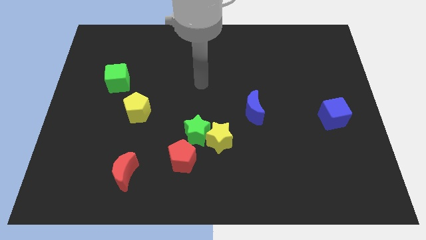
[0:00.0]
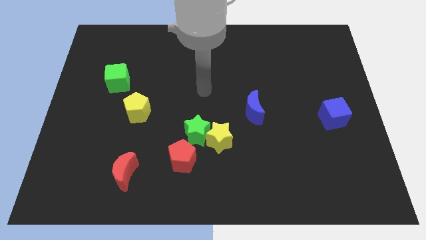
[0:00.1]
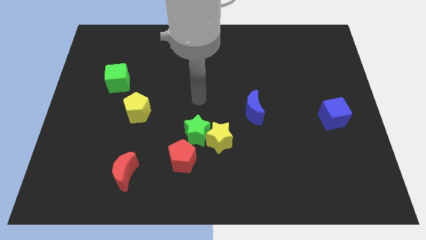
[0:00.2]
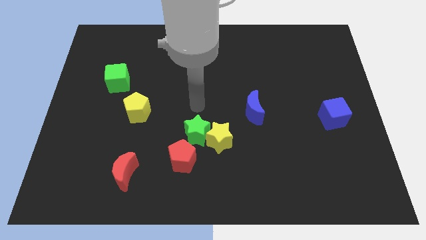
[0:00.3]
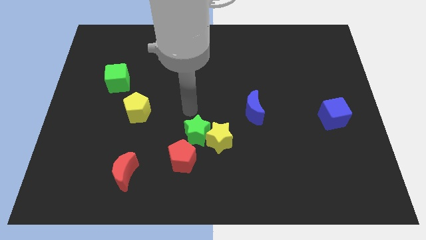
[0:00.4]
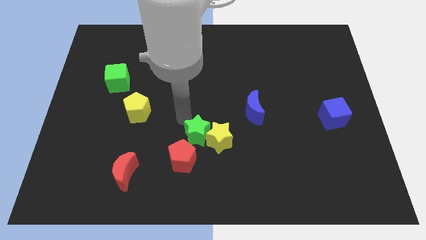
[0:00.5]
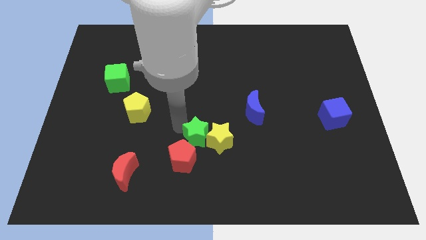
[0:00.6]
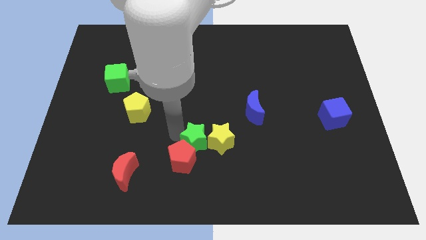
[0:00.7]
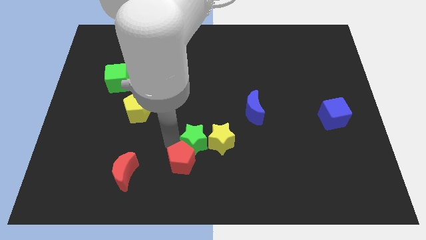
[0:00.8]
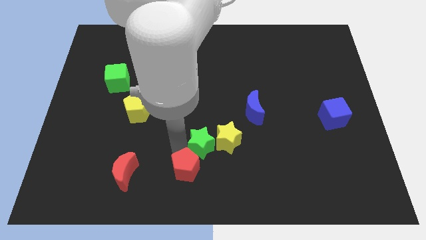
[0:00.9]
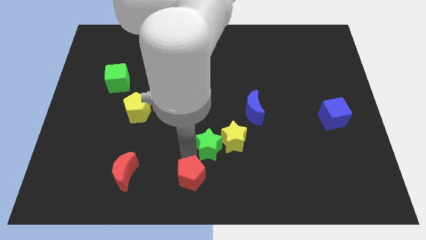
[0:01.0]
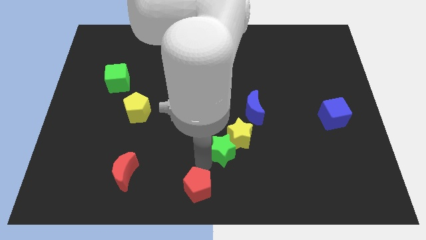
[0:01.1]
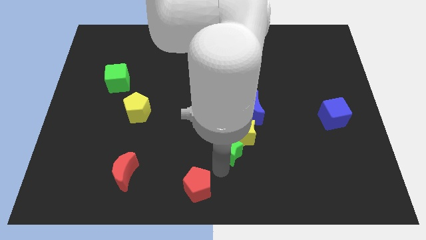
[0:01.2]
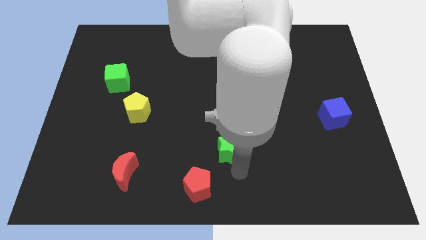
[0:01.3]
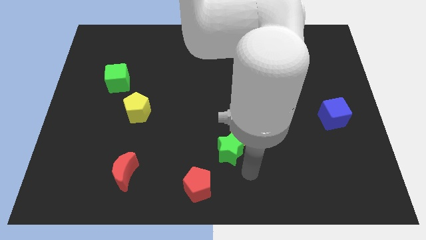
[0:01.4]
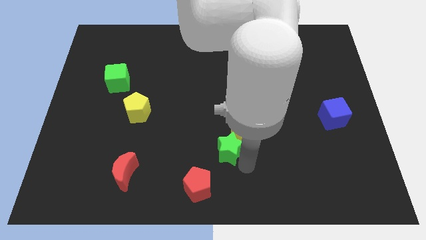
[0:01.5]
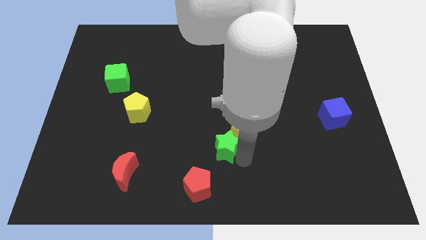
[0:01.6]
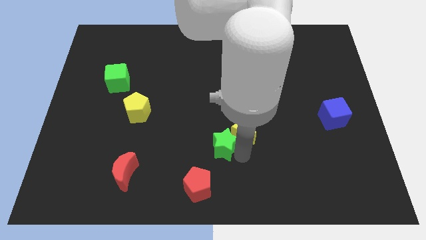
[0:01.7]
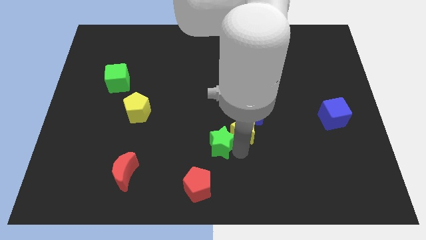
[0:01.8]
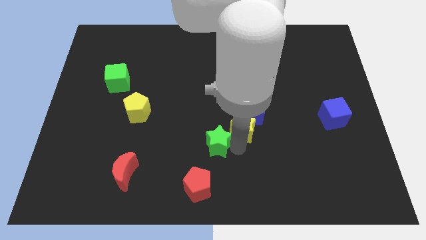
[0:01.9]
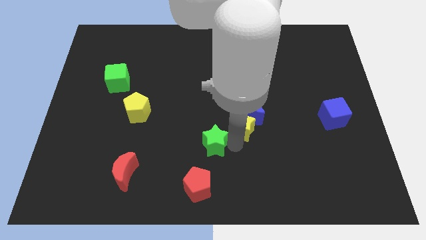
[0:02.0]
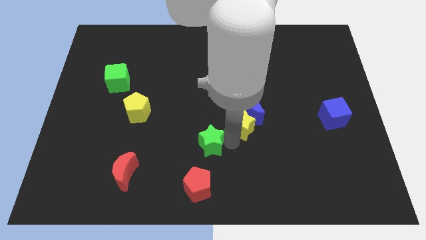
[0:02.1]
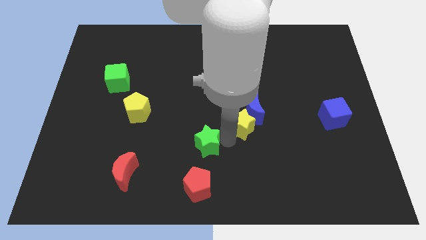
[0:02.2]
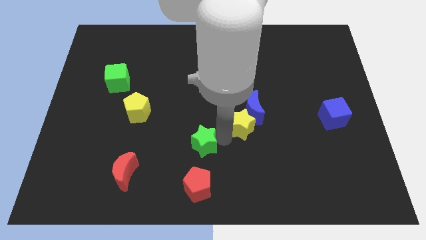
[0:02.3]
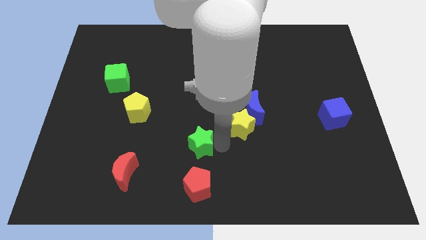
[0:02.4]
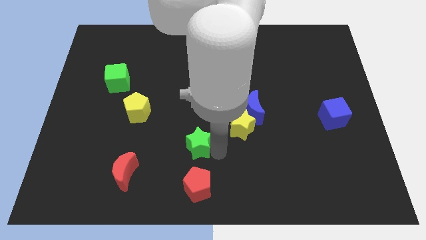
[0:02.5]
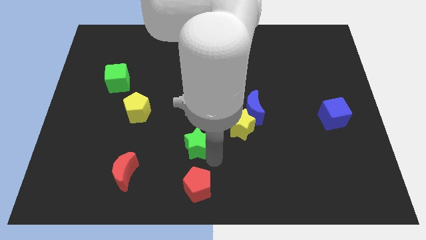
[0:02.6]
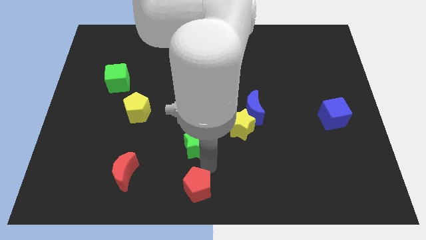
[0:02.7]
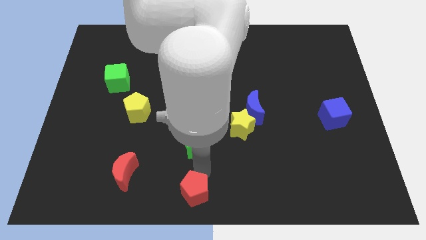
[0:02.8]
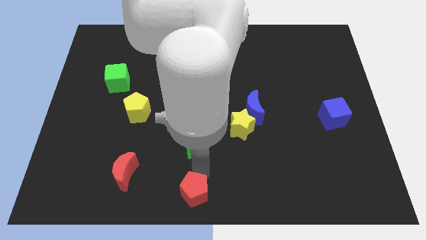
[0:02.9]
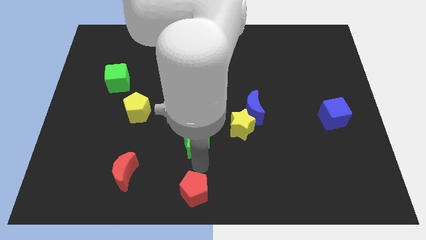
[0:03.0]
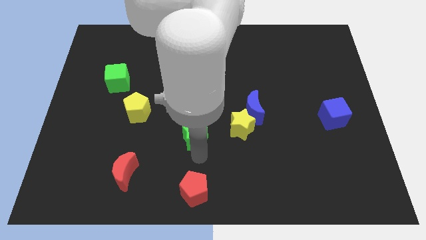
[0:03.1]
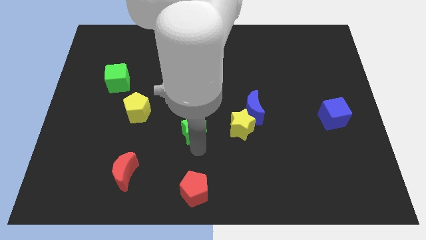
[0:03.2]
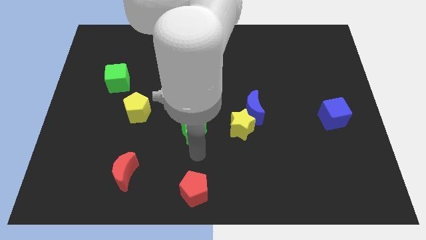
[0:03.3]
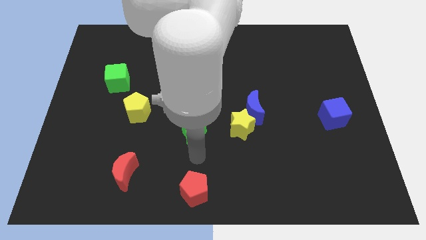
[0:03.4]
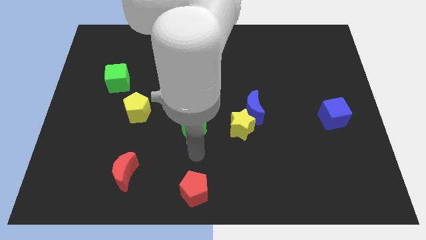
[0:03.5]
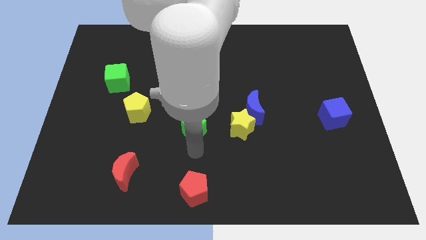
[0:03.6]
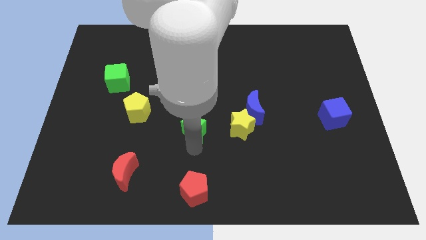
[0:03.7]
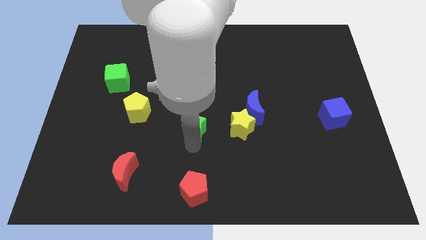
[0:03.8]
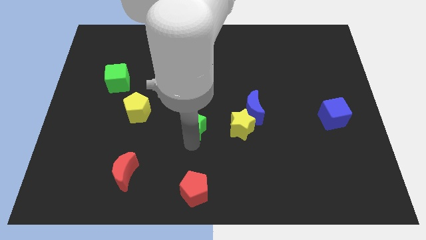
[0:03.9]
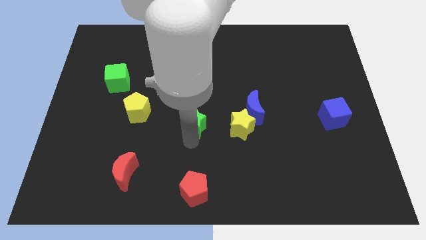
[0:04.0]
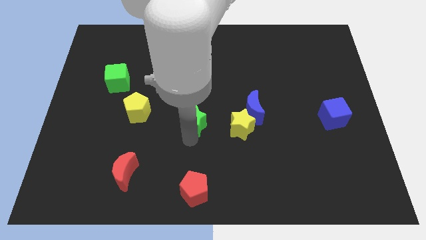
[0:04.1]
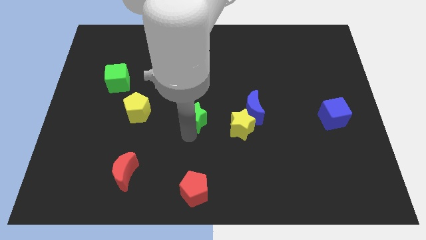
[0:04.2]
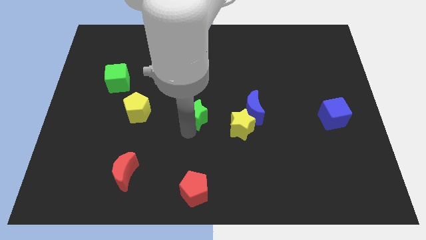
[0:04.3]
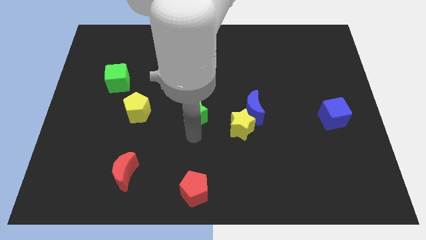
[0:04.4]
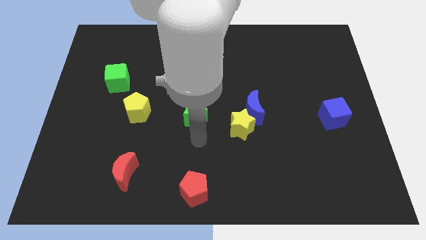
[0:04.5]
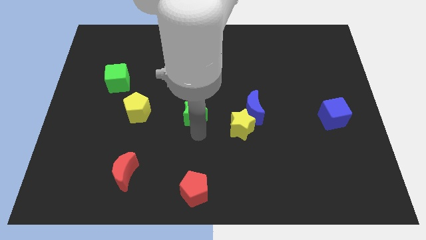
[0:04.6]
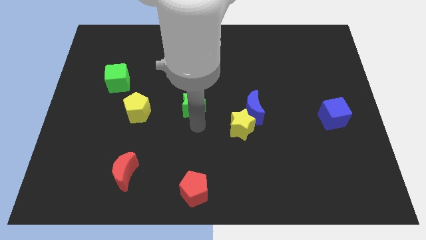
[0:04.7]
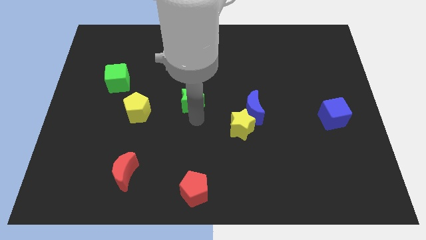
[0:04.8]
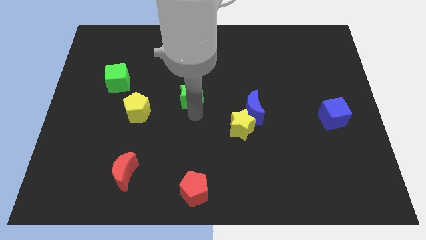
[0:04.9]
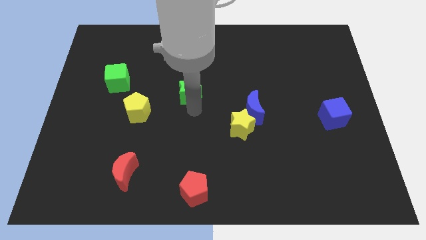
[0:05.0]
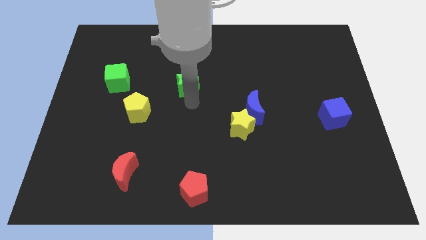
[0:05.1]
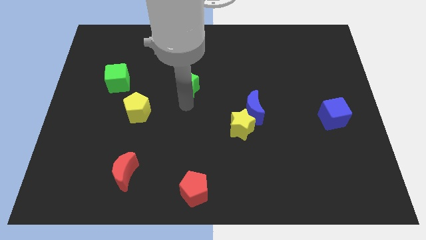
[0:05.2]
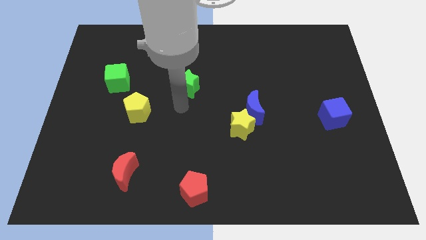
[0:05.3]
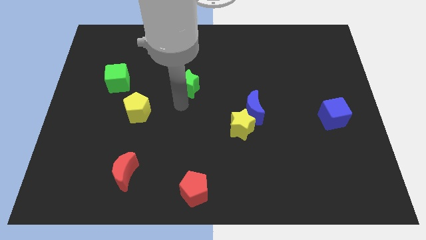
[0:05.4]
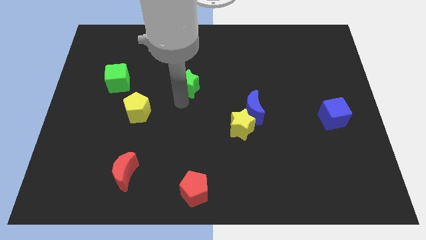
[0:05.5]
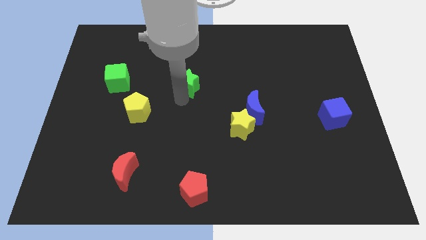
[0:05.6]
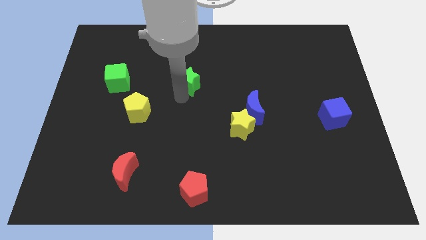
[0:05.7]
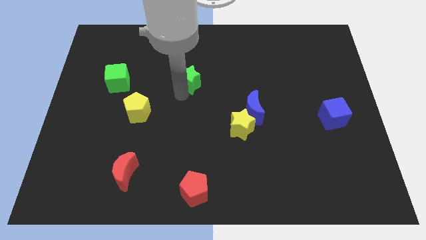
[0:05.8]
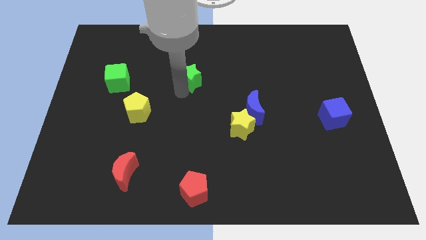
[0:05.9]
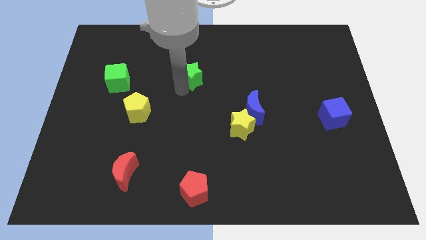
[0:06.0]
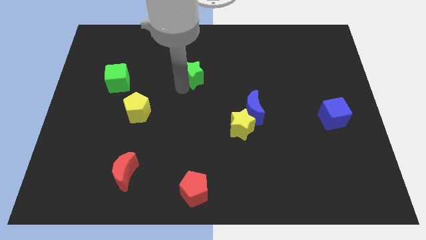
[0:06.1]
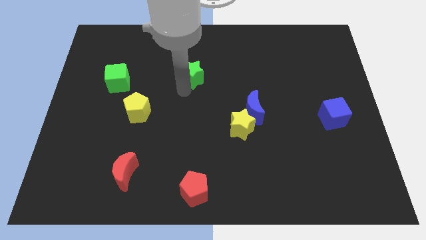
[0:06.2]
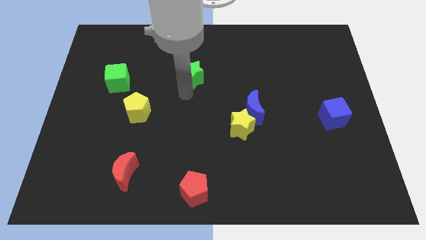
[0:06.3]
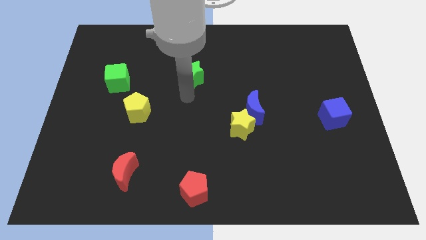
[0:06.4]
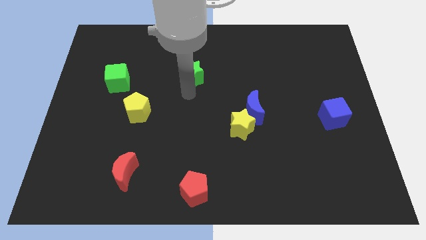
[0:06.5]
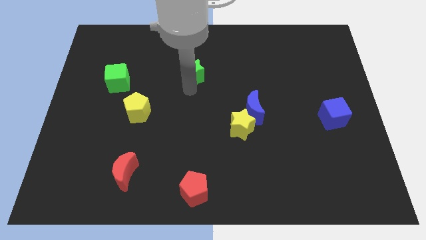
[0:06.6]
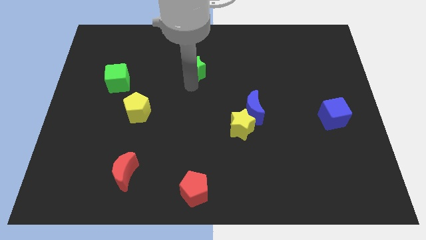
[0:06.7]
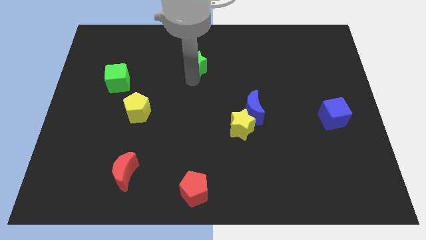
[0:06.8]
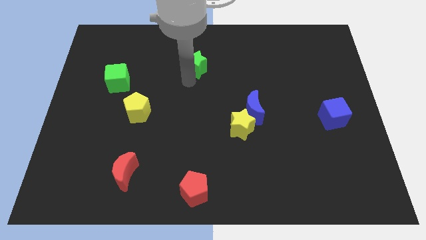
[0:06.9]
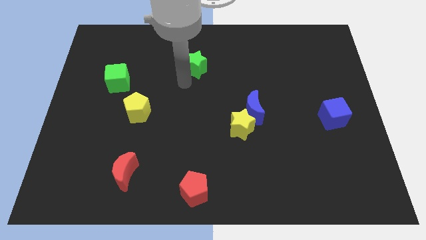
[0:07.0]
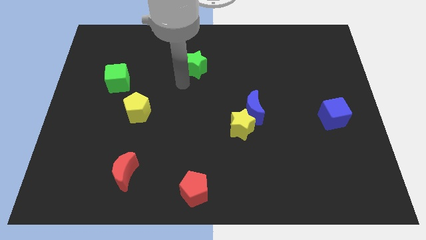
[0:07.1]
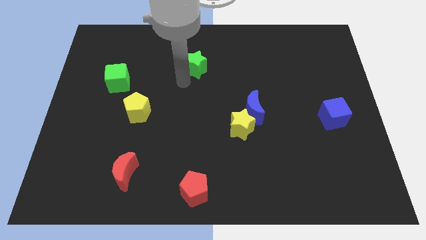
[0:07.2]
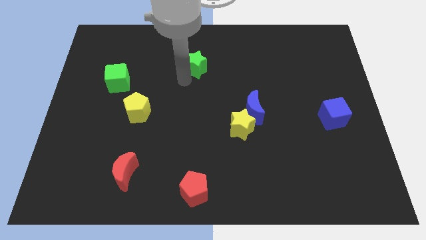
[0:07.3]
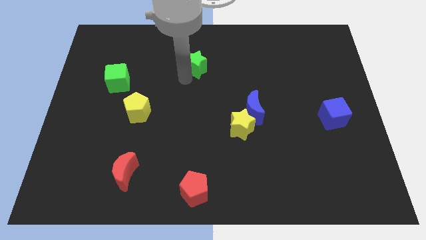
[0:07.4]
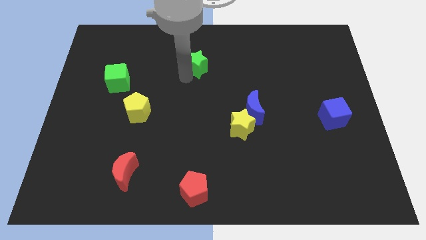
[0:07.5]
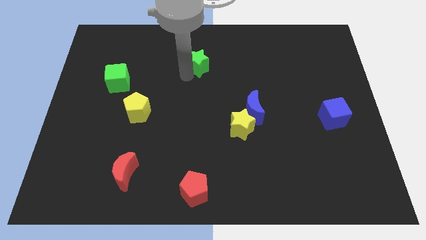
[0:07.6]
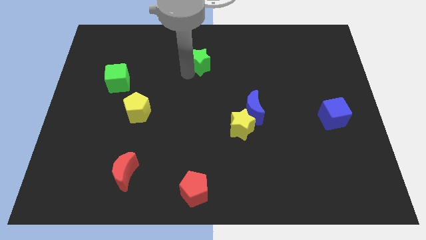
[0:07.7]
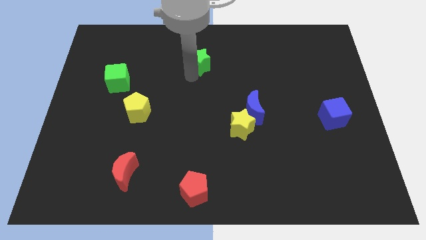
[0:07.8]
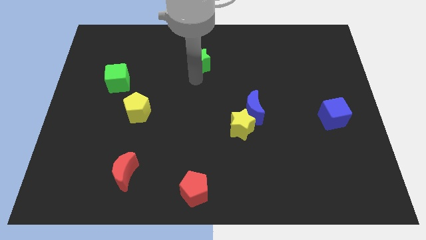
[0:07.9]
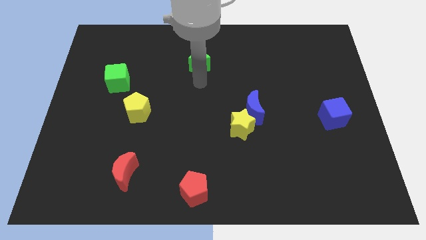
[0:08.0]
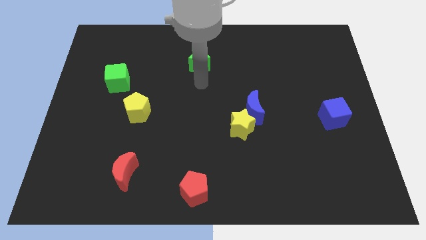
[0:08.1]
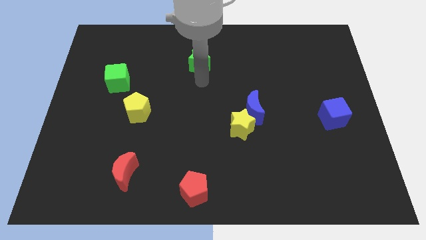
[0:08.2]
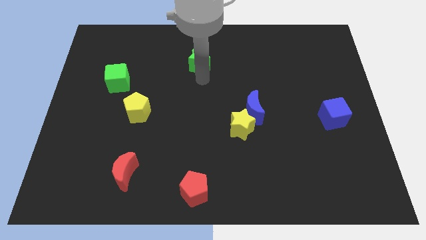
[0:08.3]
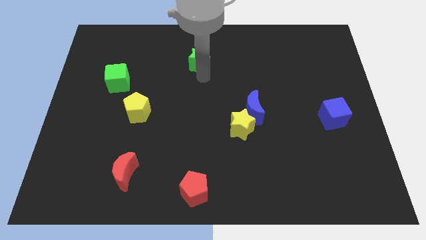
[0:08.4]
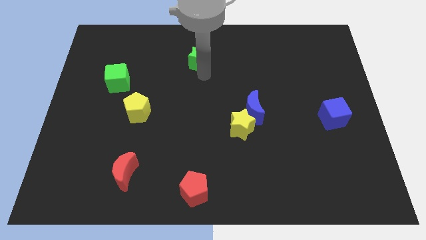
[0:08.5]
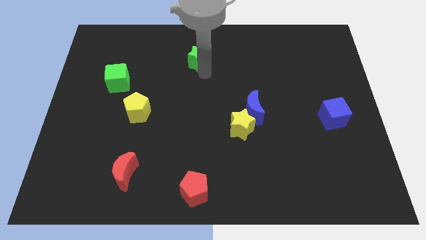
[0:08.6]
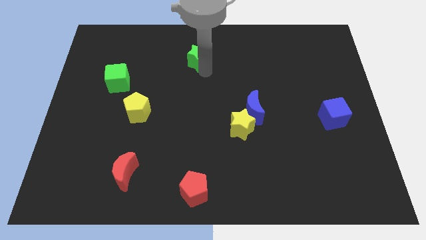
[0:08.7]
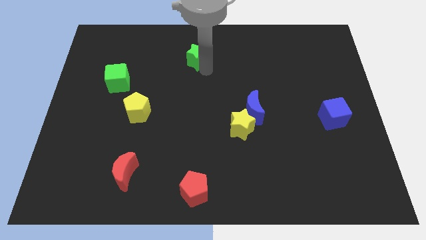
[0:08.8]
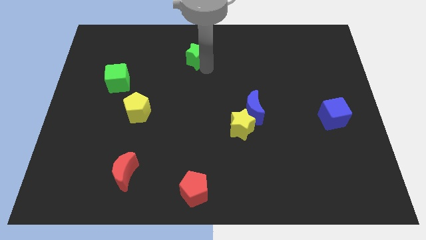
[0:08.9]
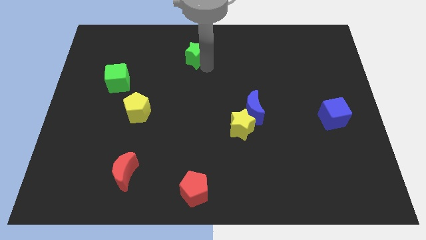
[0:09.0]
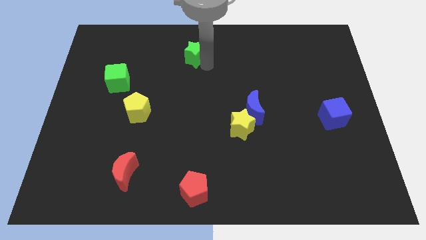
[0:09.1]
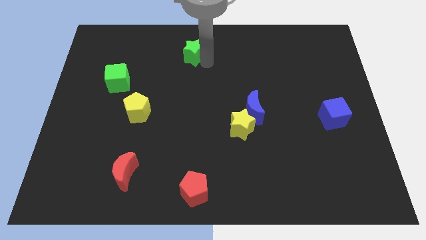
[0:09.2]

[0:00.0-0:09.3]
push the green star to the towards your base
